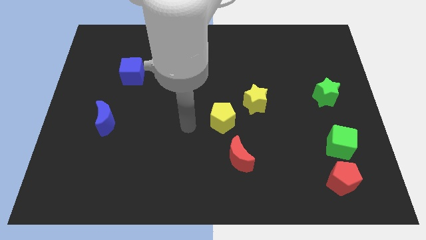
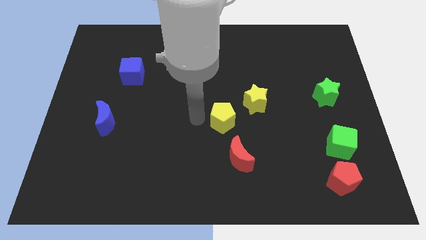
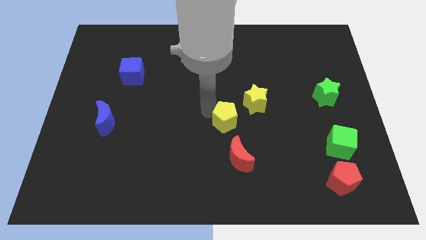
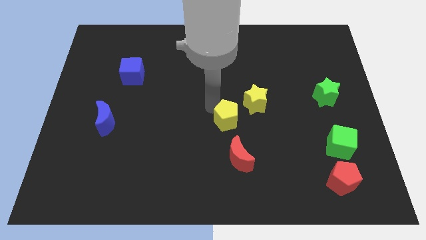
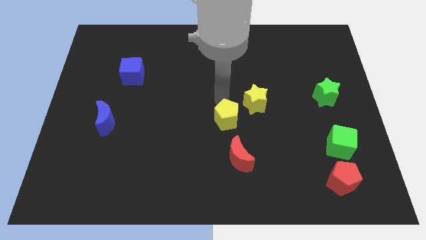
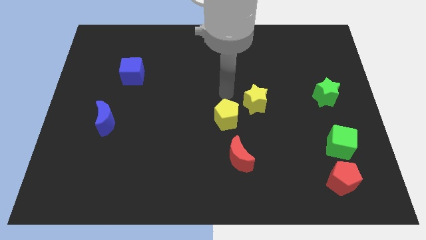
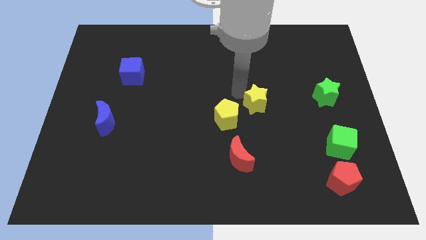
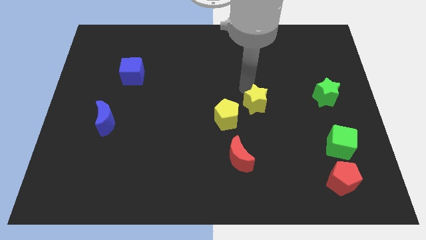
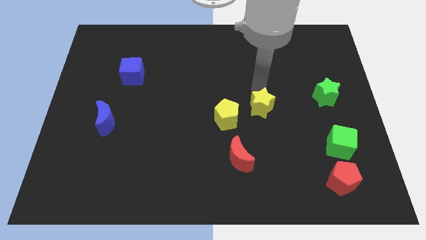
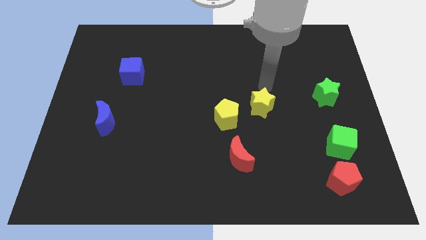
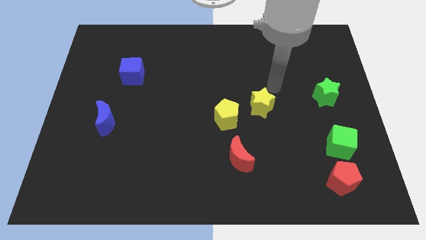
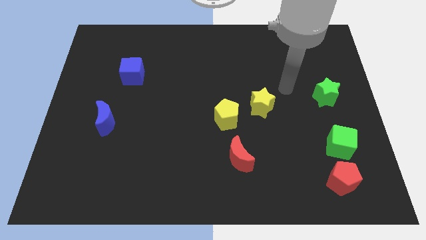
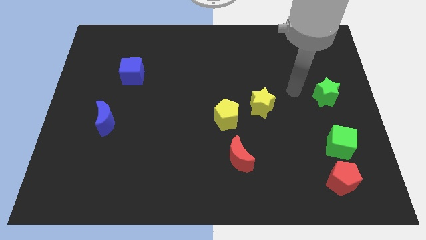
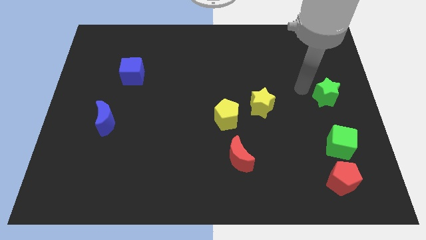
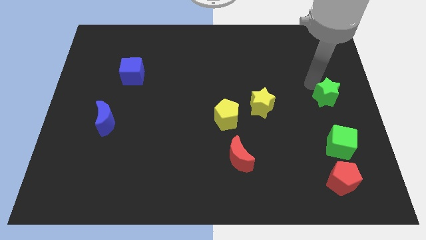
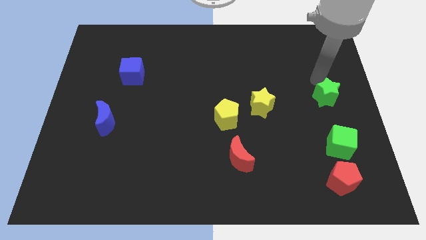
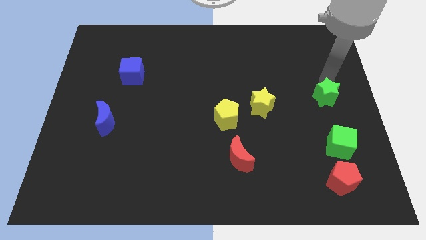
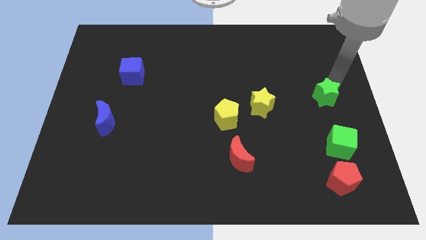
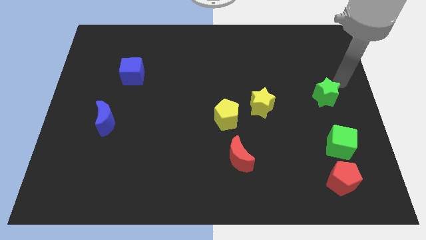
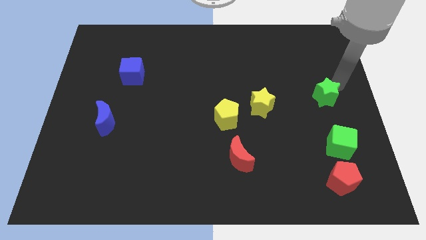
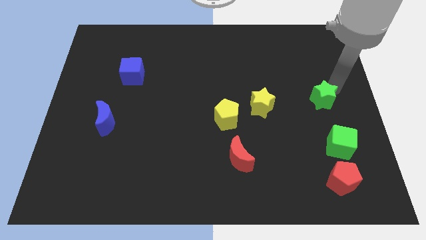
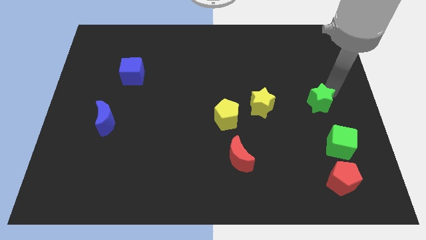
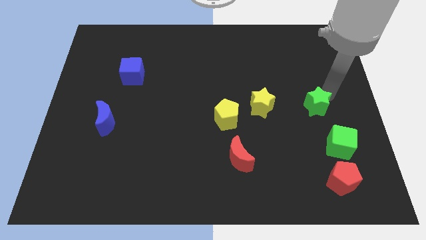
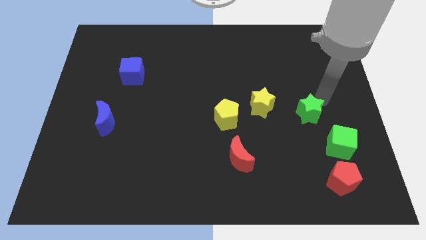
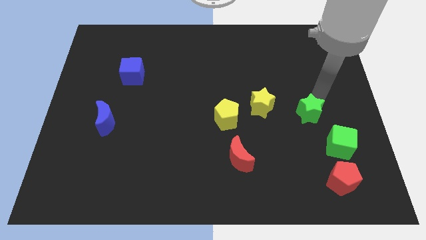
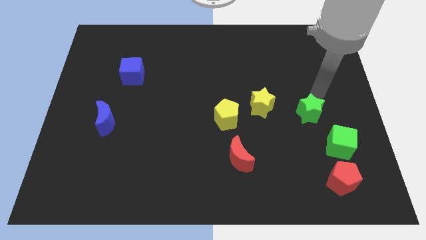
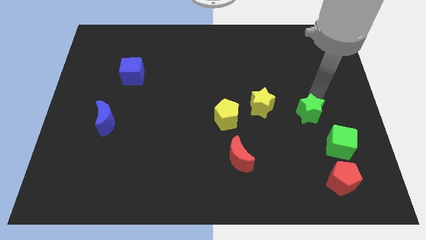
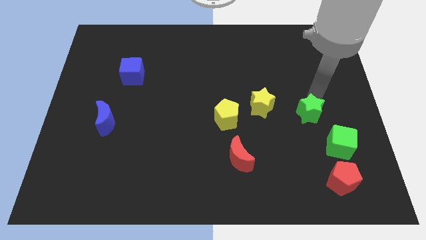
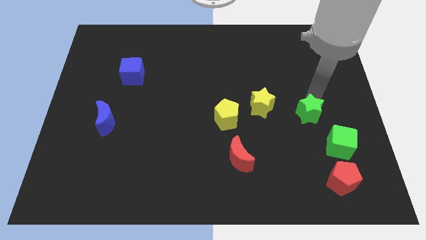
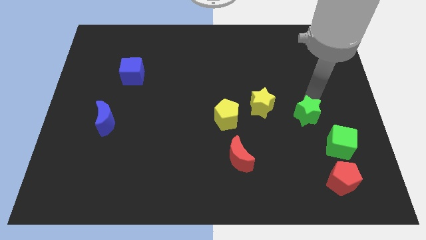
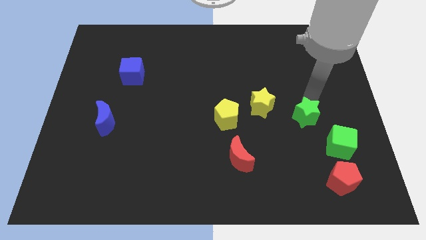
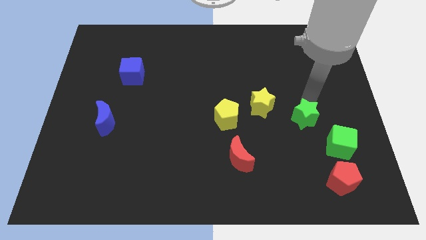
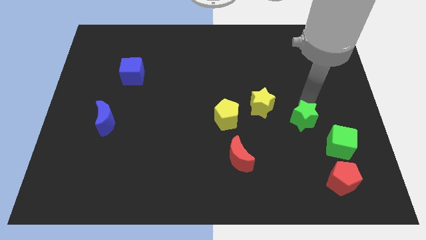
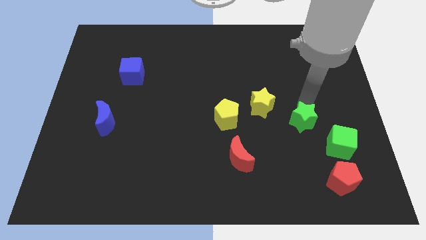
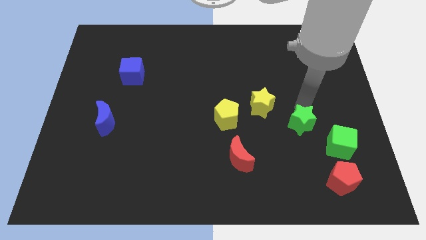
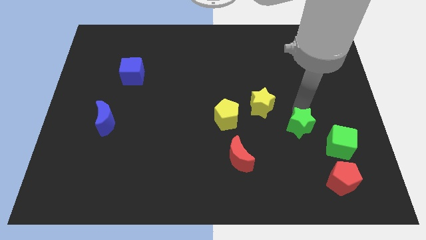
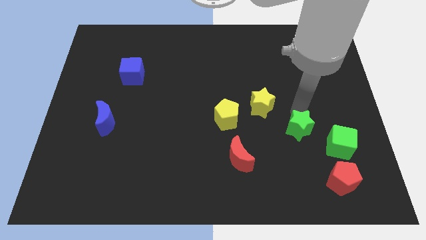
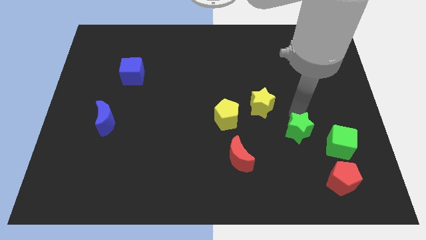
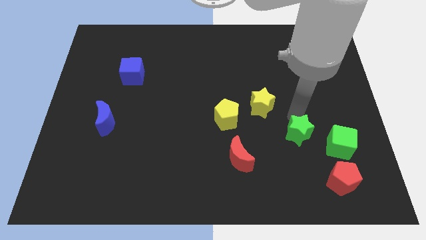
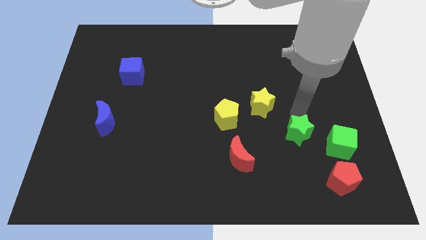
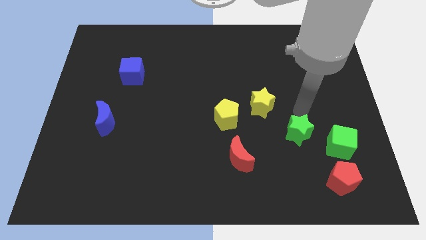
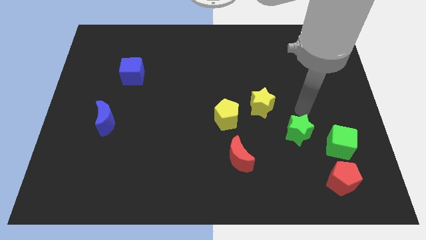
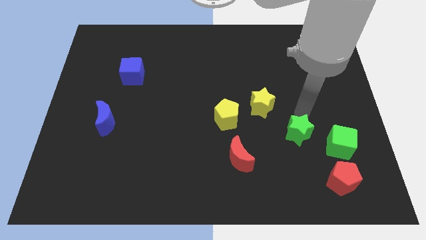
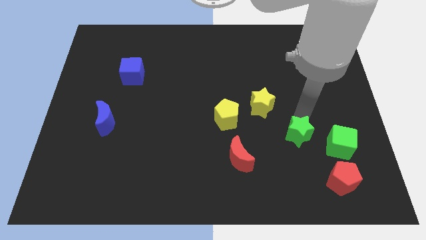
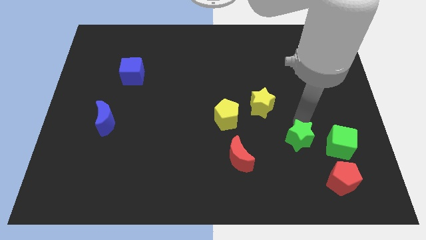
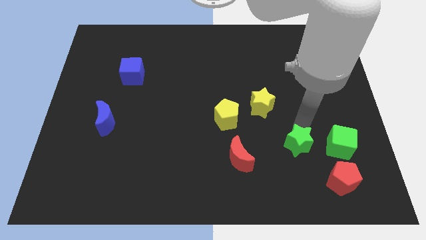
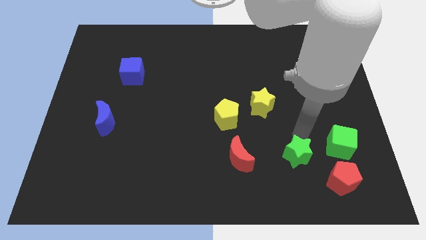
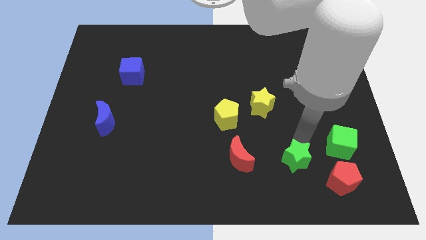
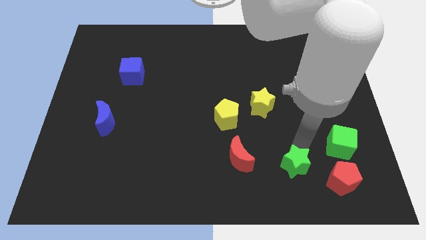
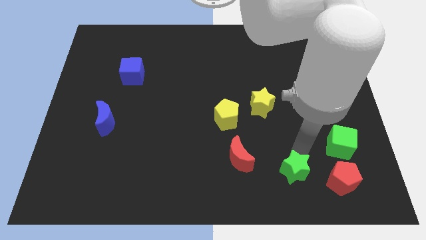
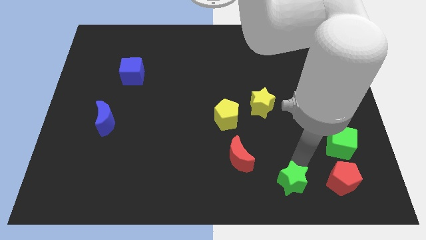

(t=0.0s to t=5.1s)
slide the green star diagonally down and left

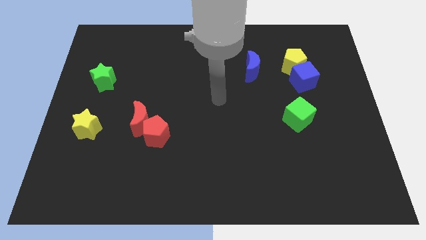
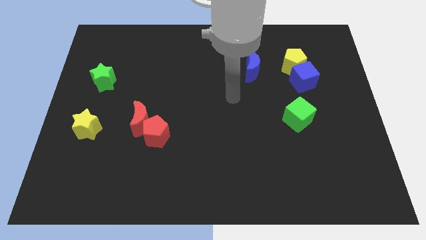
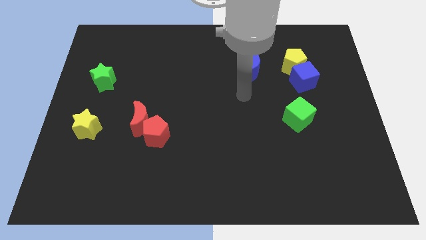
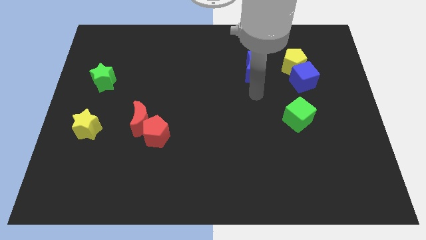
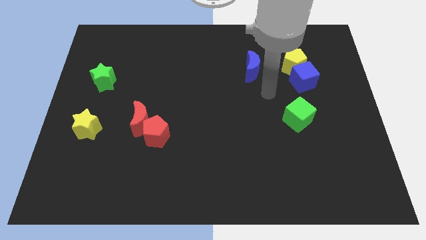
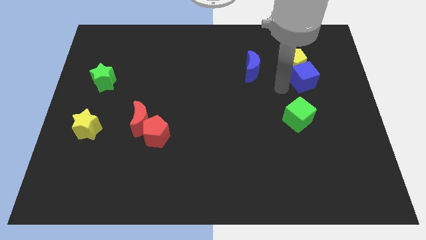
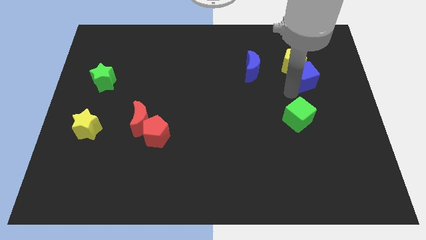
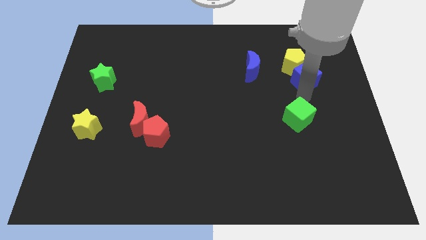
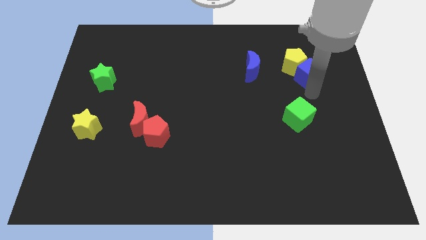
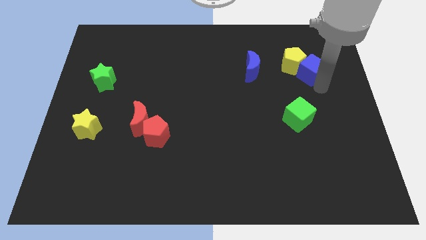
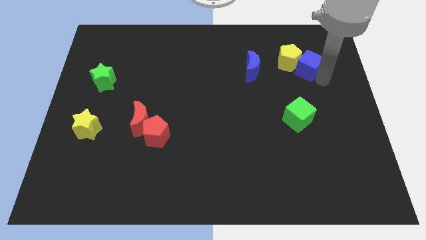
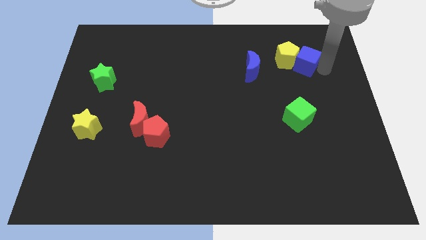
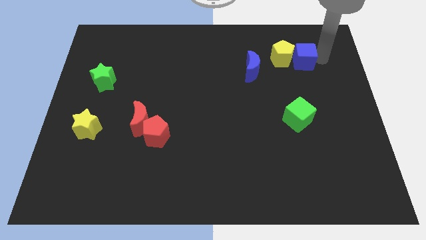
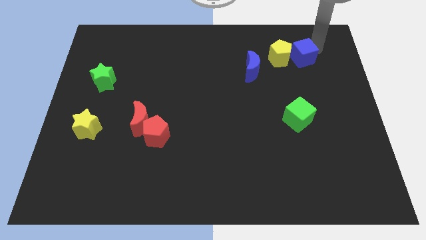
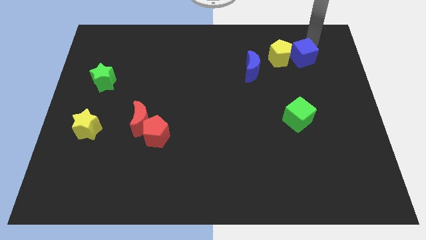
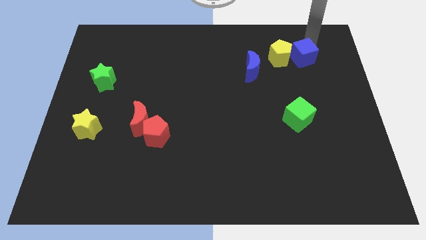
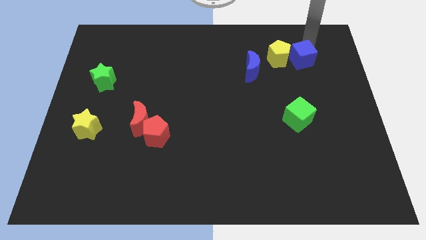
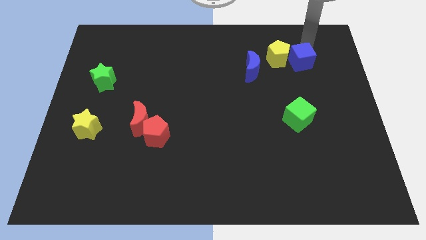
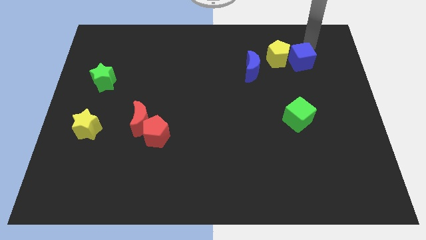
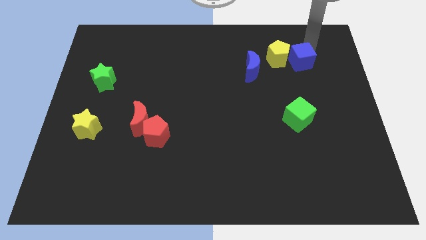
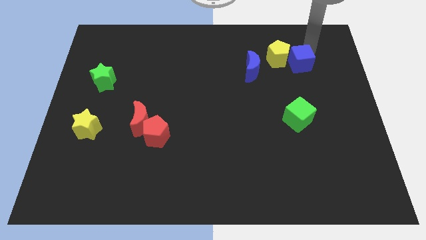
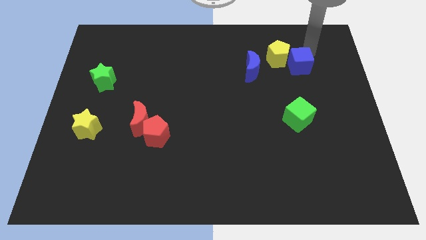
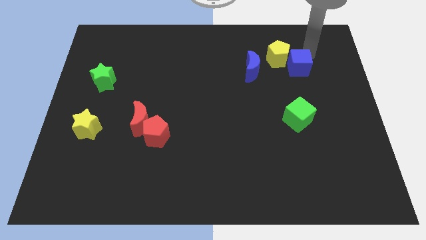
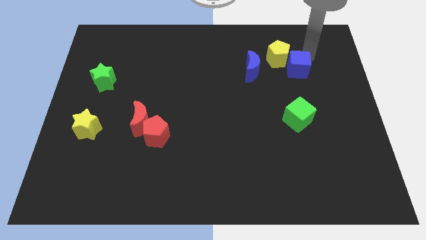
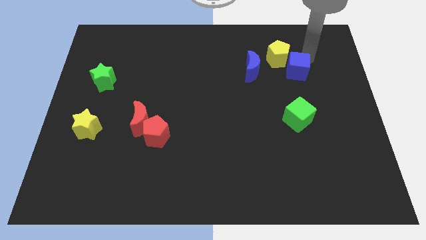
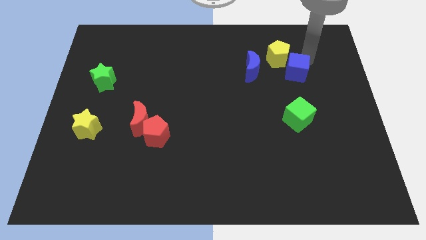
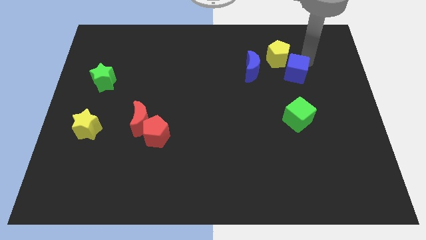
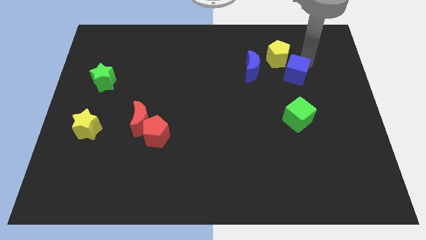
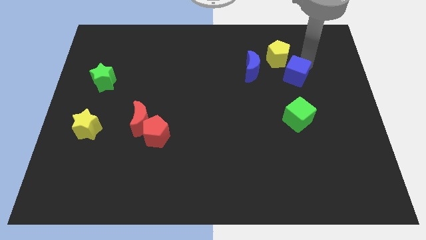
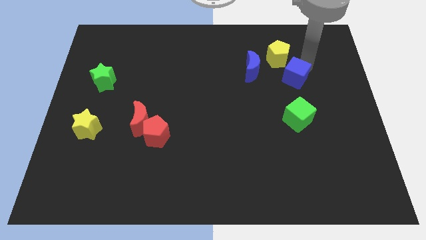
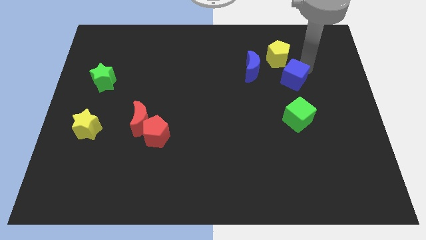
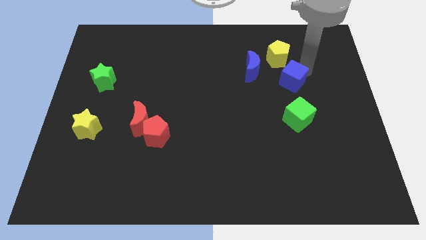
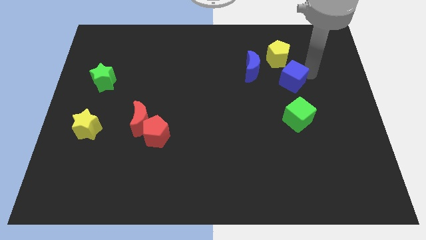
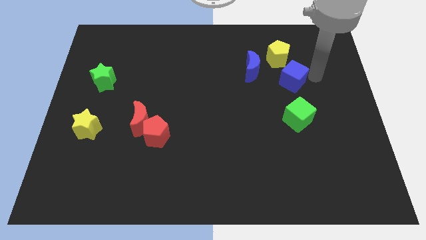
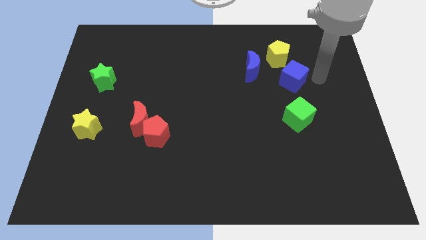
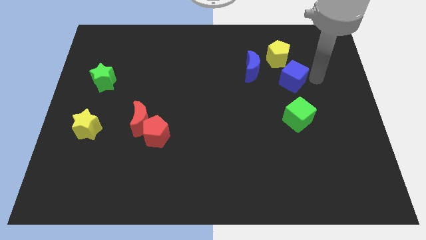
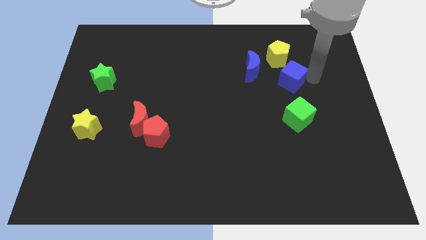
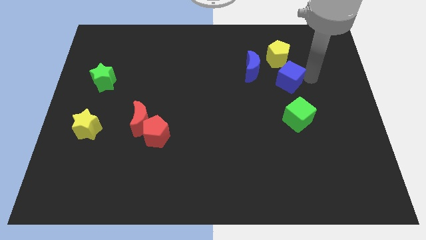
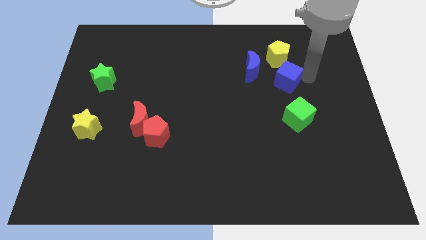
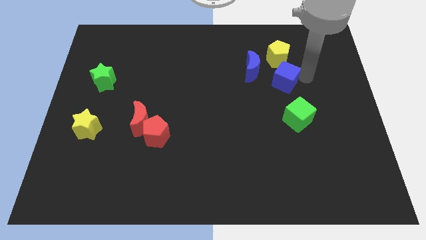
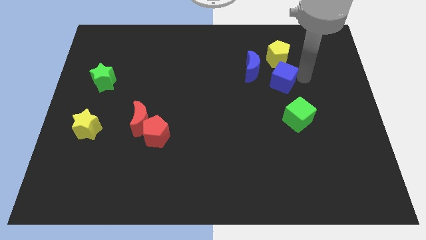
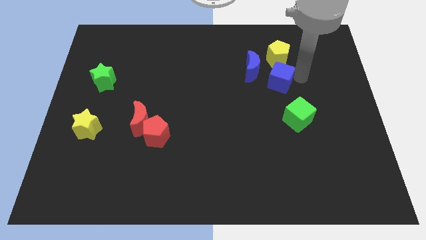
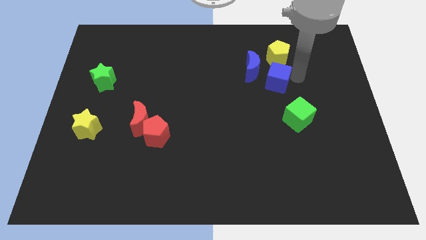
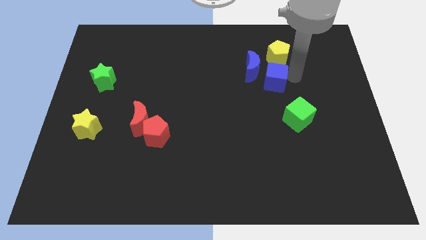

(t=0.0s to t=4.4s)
slightly push the blue cube to the left
